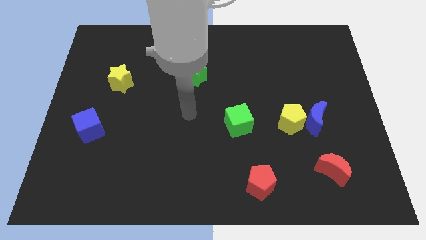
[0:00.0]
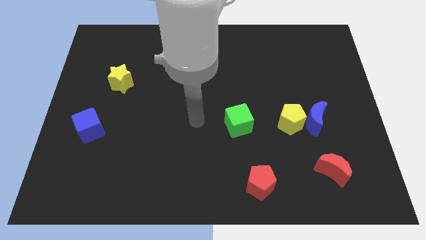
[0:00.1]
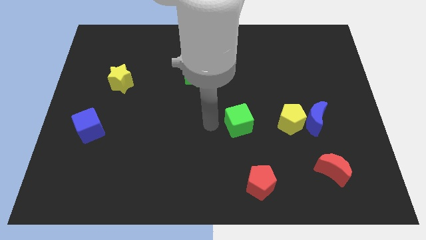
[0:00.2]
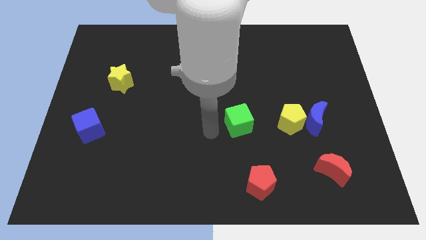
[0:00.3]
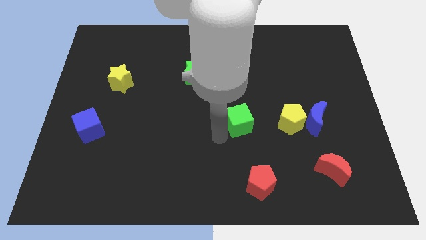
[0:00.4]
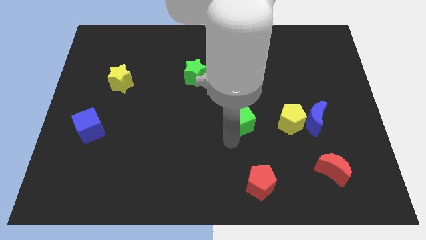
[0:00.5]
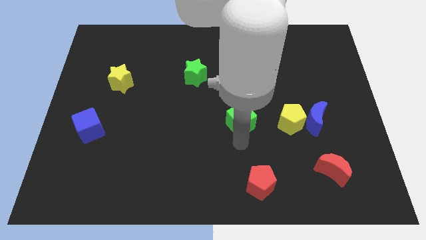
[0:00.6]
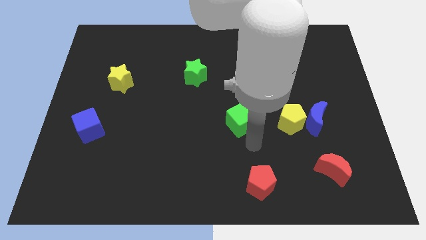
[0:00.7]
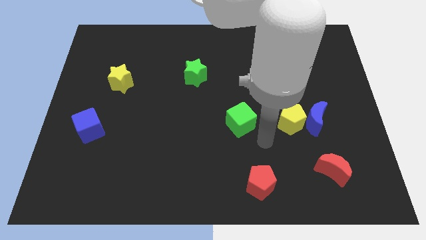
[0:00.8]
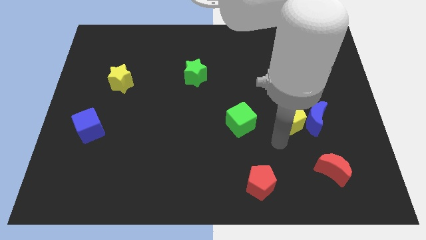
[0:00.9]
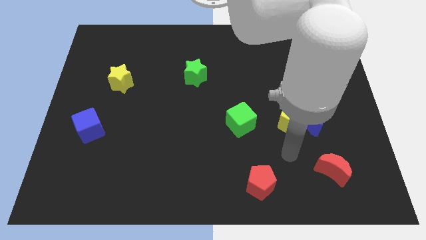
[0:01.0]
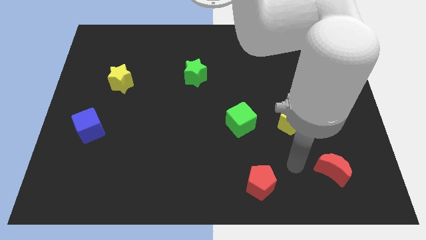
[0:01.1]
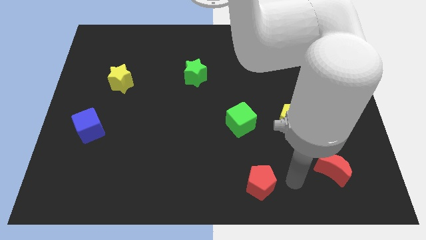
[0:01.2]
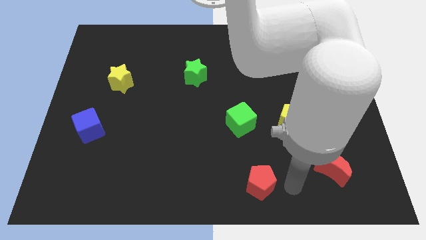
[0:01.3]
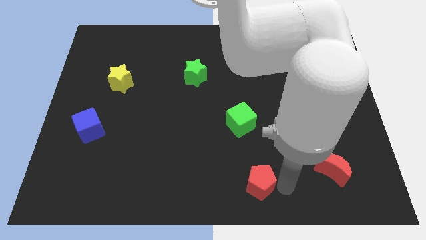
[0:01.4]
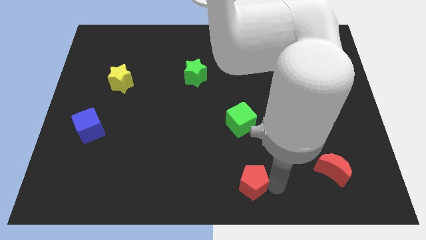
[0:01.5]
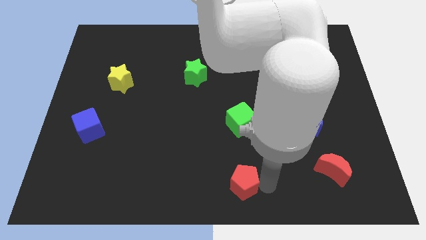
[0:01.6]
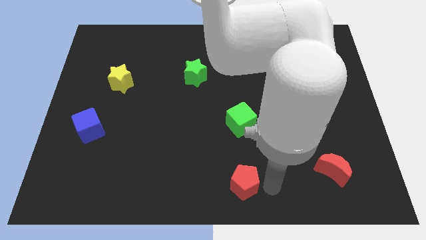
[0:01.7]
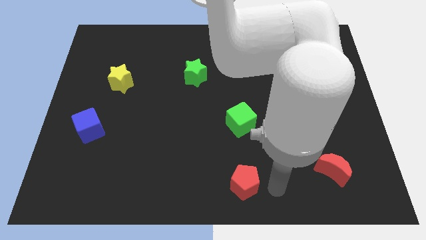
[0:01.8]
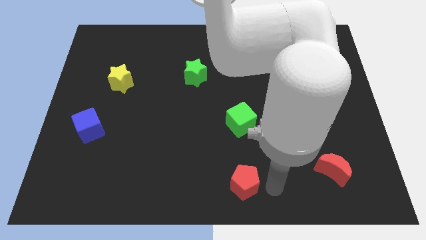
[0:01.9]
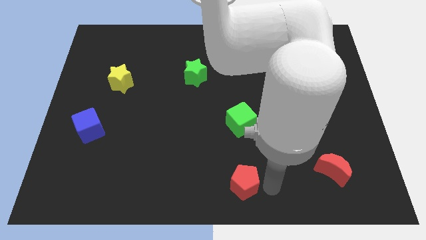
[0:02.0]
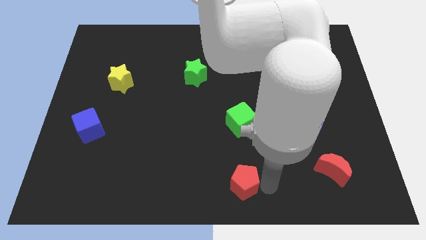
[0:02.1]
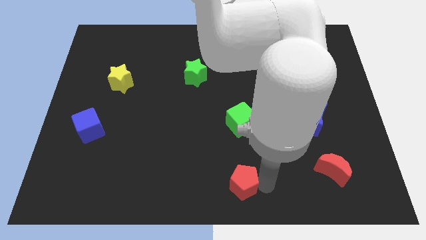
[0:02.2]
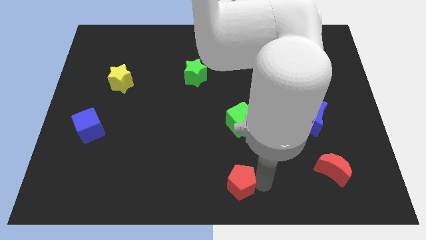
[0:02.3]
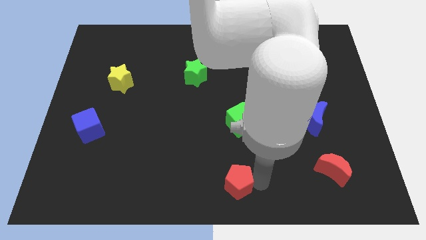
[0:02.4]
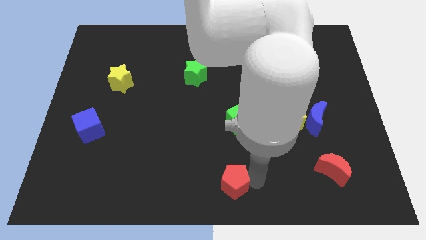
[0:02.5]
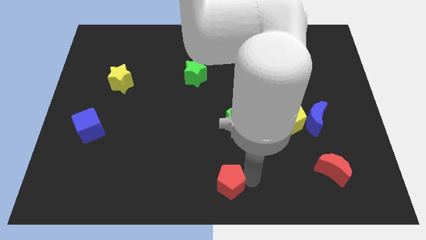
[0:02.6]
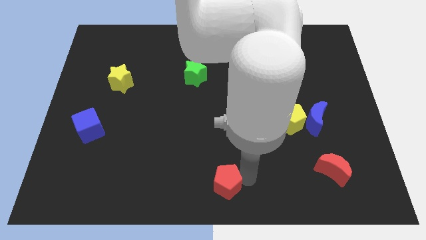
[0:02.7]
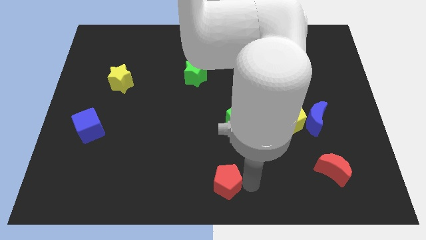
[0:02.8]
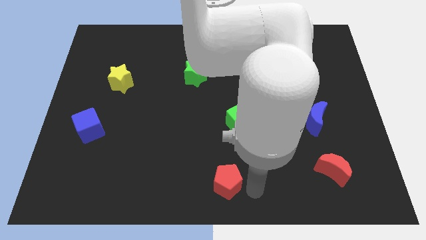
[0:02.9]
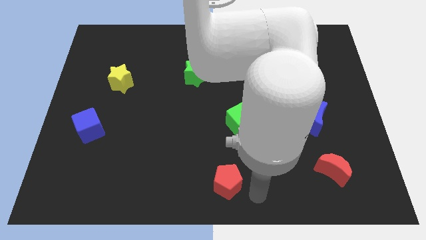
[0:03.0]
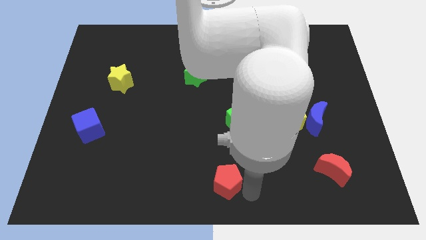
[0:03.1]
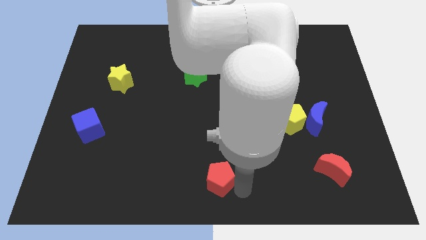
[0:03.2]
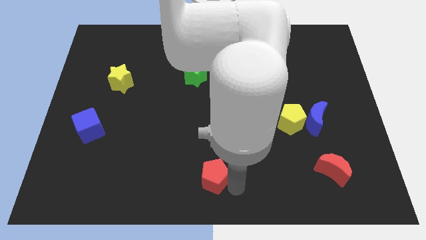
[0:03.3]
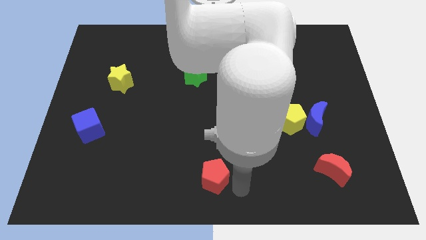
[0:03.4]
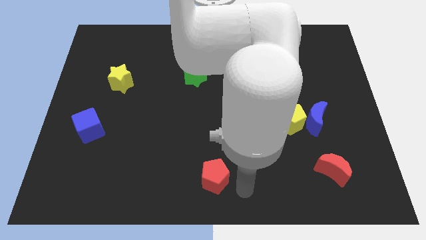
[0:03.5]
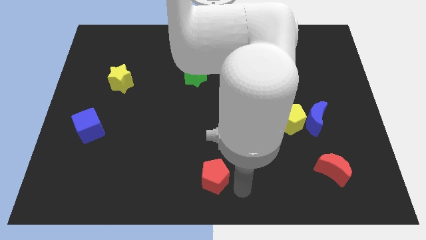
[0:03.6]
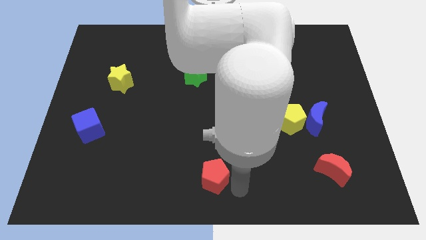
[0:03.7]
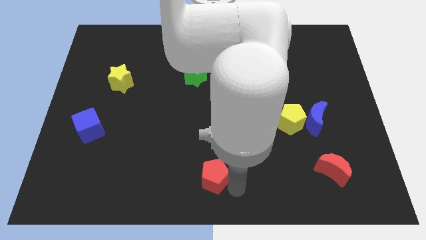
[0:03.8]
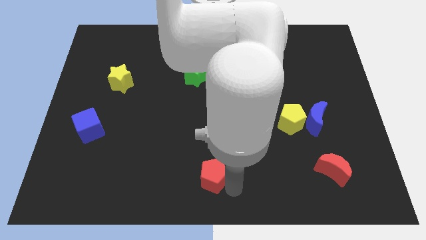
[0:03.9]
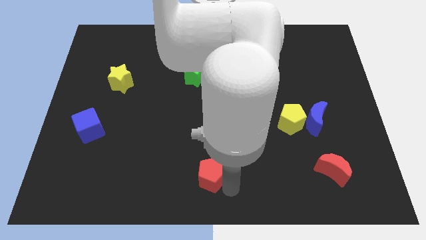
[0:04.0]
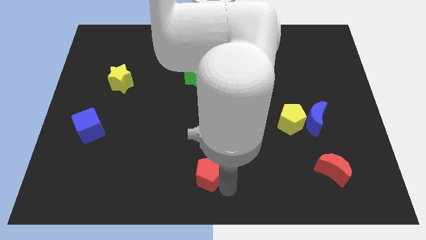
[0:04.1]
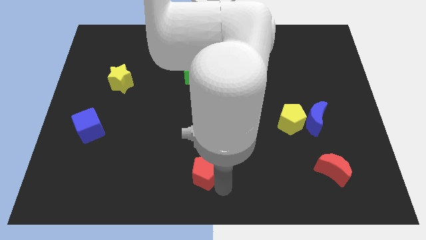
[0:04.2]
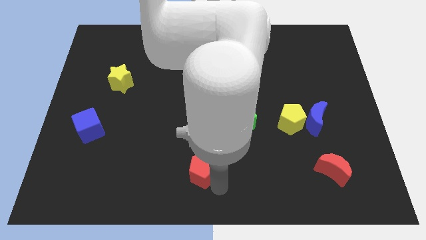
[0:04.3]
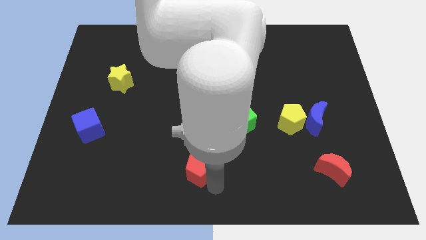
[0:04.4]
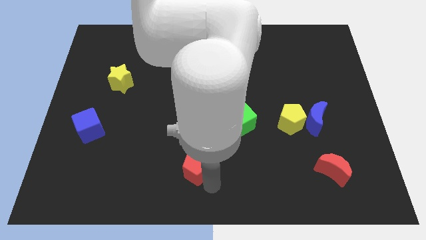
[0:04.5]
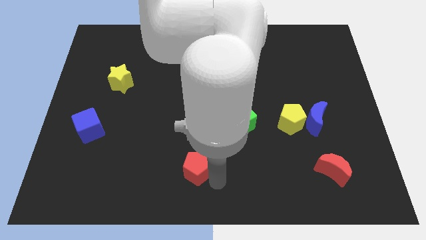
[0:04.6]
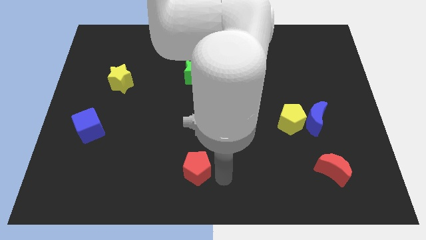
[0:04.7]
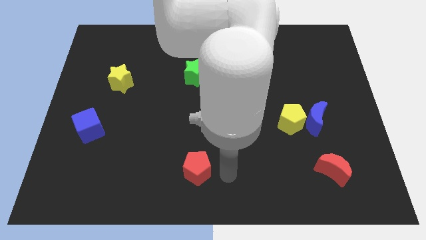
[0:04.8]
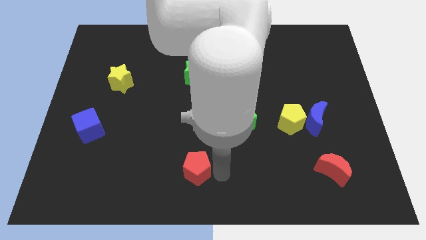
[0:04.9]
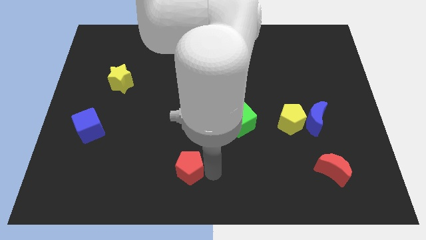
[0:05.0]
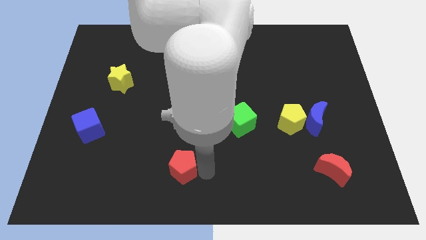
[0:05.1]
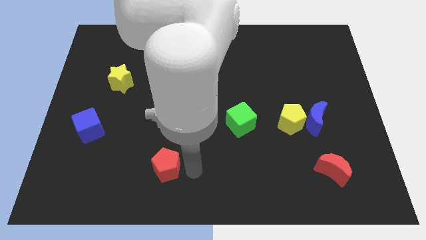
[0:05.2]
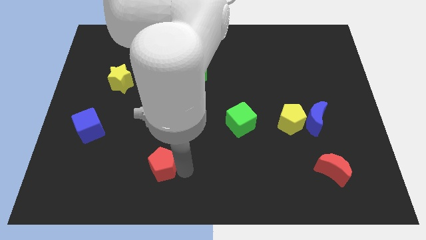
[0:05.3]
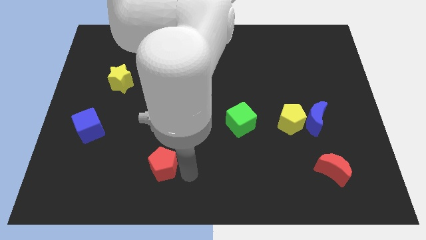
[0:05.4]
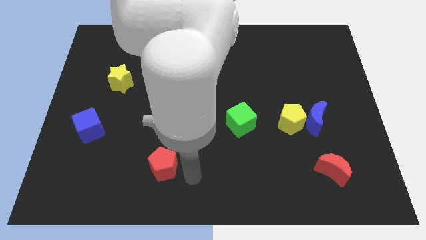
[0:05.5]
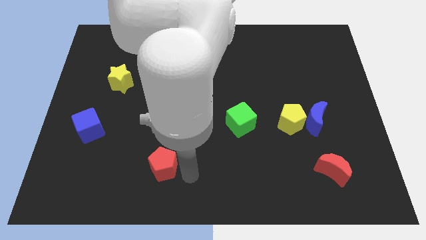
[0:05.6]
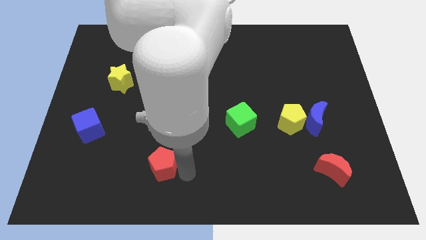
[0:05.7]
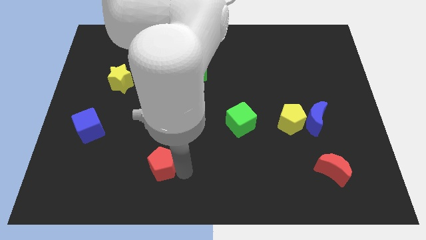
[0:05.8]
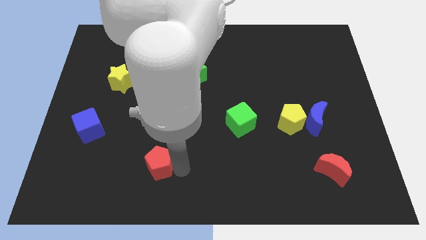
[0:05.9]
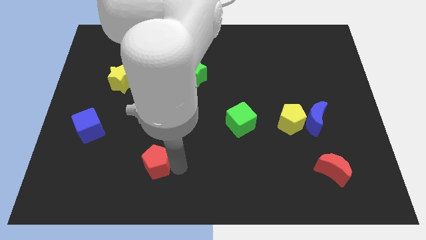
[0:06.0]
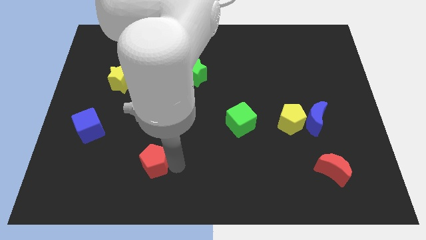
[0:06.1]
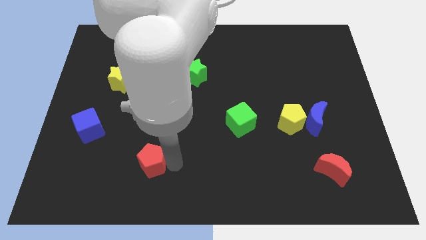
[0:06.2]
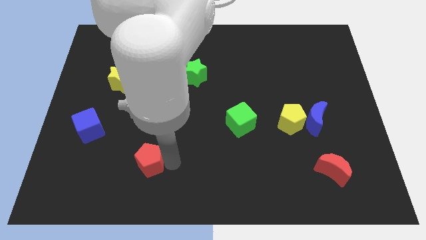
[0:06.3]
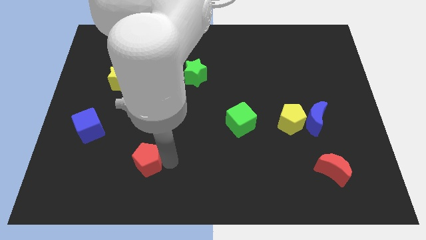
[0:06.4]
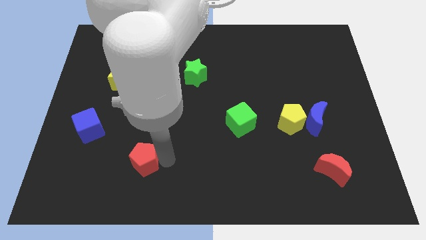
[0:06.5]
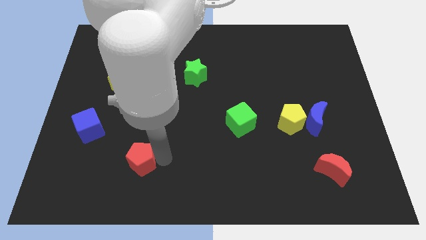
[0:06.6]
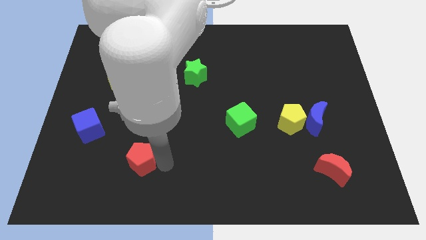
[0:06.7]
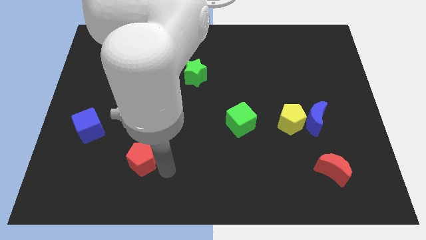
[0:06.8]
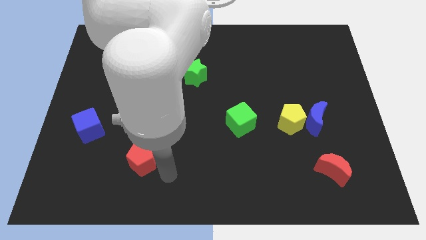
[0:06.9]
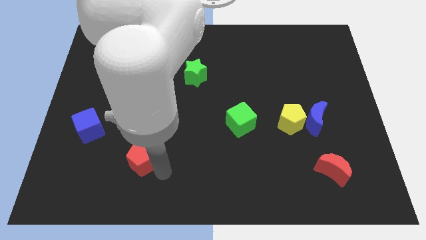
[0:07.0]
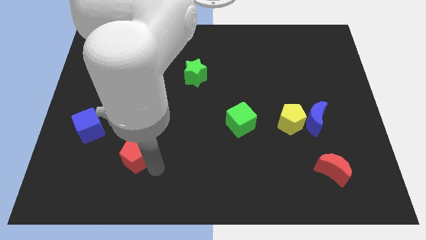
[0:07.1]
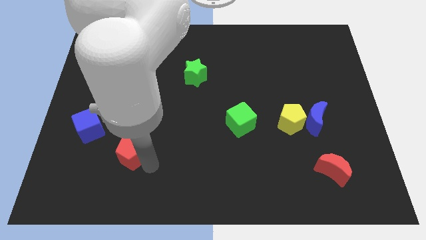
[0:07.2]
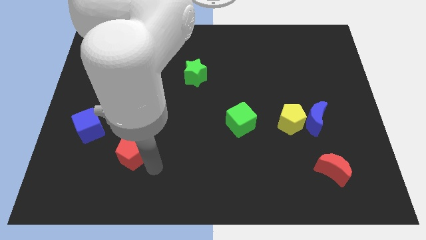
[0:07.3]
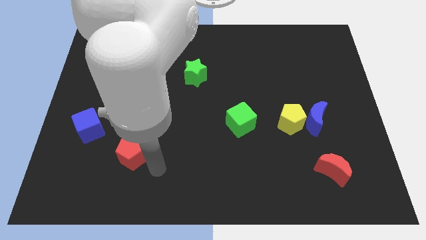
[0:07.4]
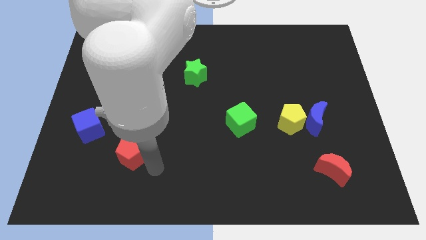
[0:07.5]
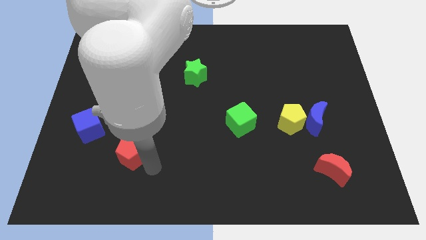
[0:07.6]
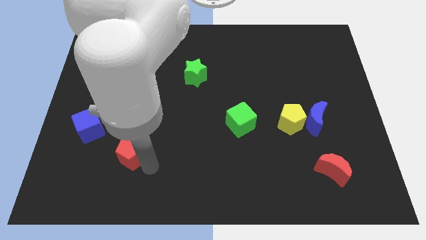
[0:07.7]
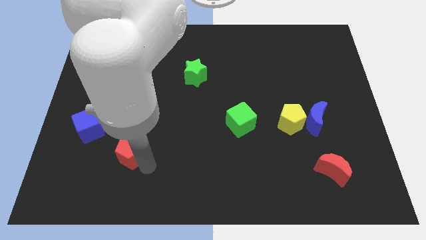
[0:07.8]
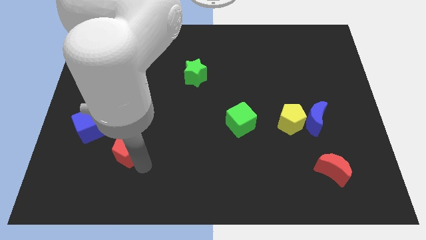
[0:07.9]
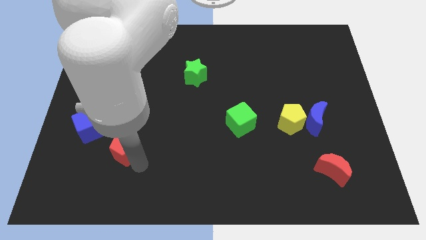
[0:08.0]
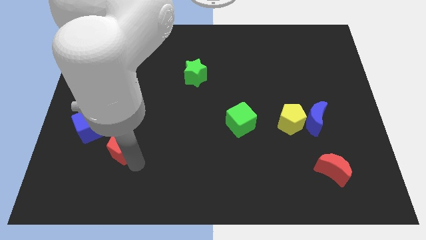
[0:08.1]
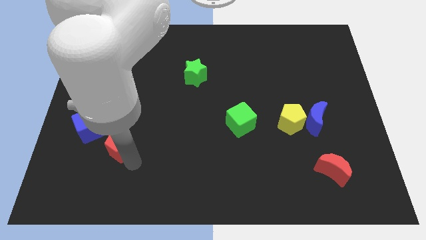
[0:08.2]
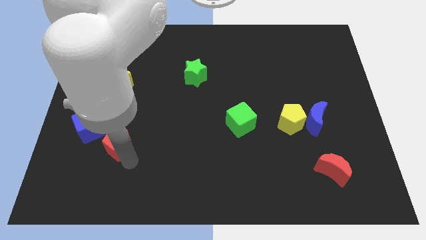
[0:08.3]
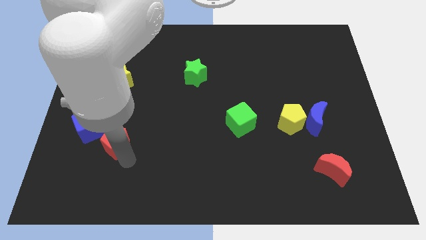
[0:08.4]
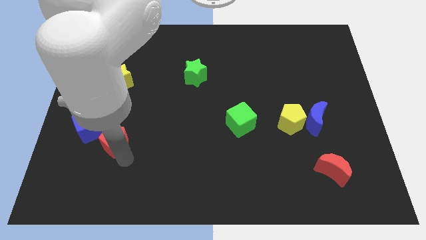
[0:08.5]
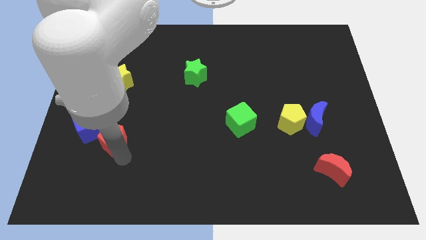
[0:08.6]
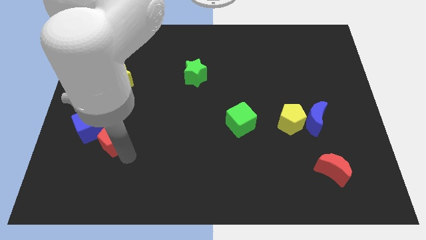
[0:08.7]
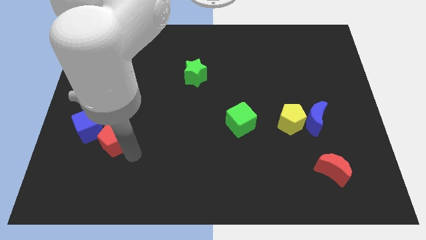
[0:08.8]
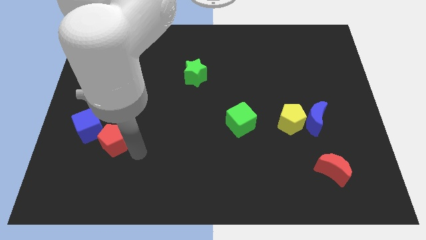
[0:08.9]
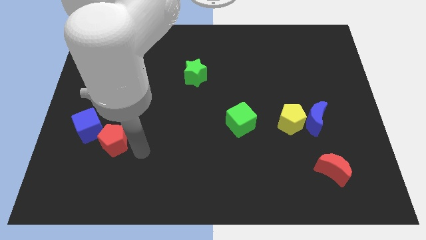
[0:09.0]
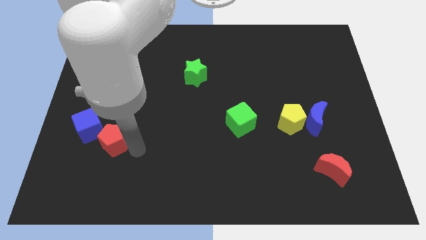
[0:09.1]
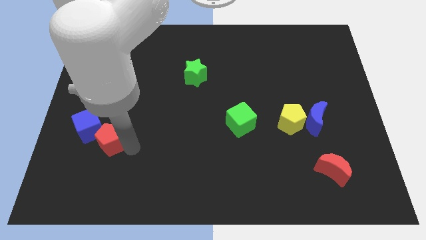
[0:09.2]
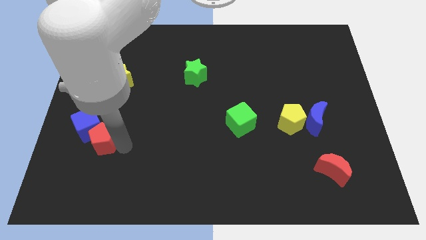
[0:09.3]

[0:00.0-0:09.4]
push the red pentagon to the blue cube
